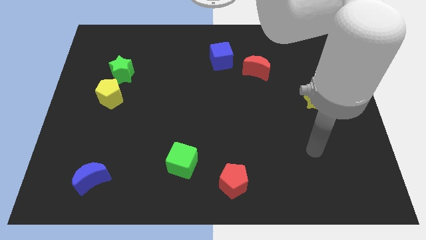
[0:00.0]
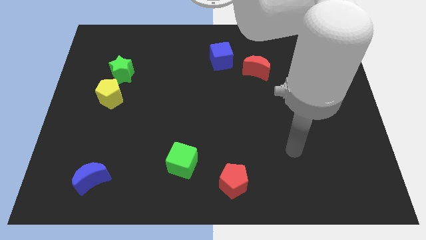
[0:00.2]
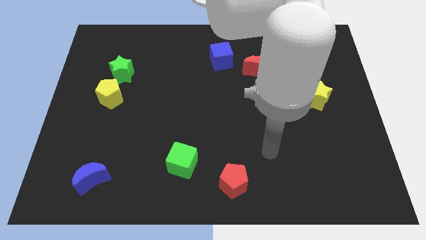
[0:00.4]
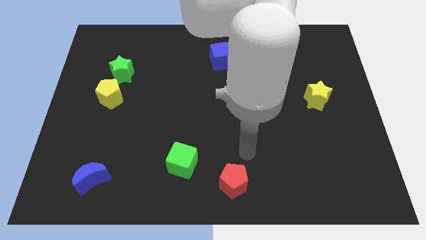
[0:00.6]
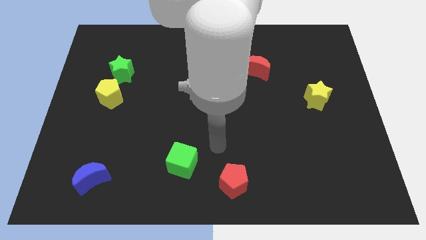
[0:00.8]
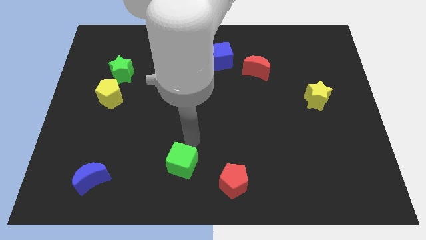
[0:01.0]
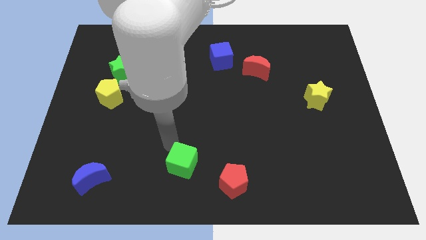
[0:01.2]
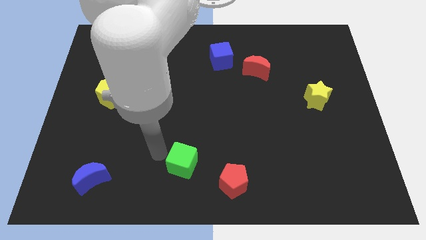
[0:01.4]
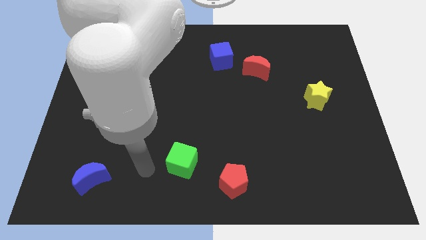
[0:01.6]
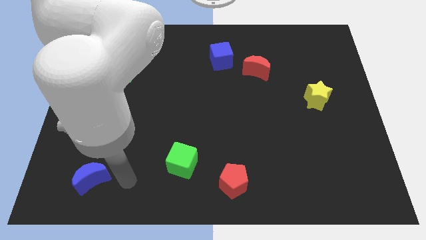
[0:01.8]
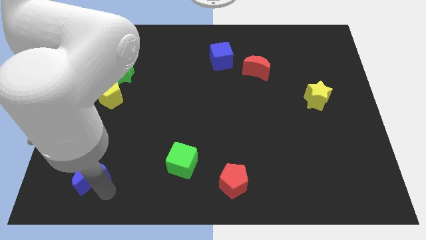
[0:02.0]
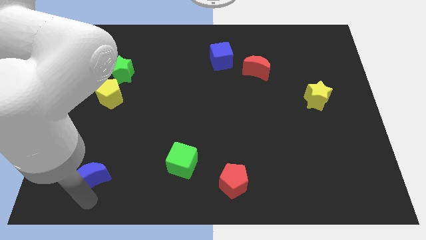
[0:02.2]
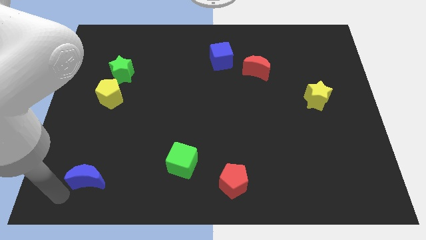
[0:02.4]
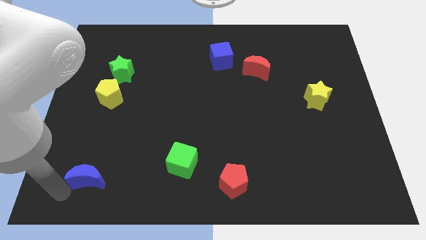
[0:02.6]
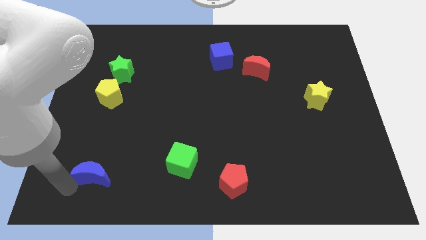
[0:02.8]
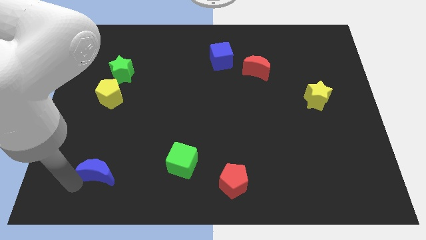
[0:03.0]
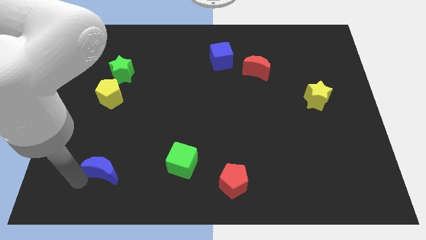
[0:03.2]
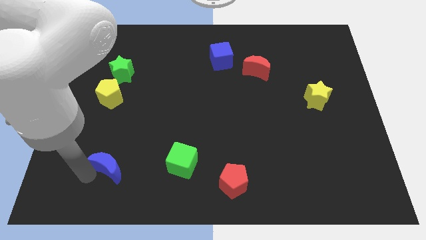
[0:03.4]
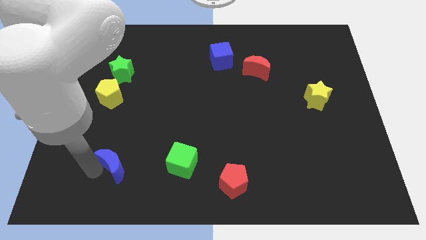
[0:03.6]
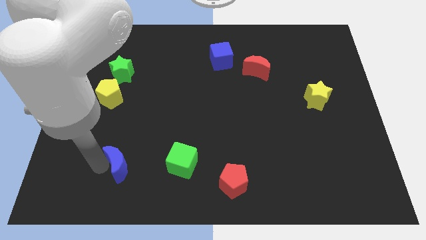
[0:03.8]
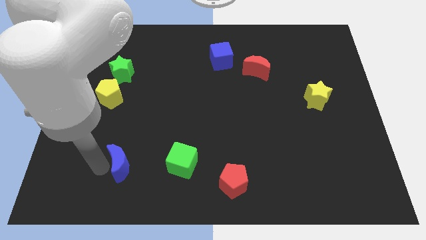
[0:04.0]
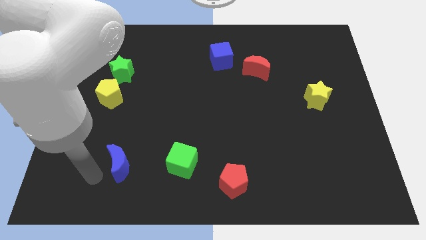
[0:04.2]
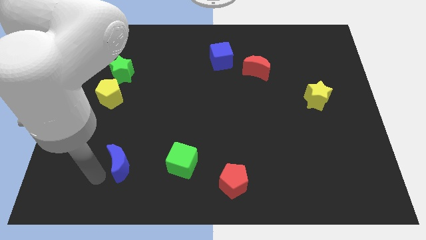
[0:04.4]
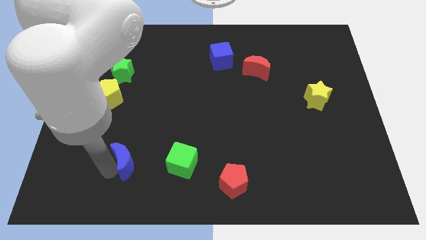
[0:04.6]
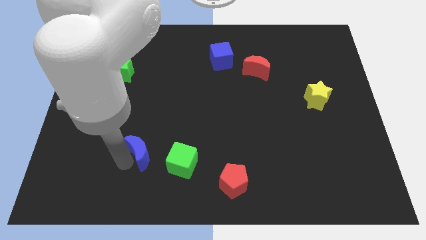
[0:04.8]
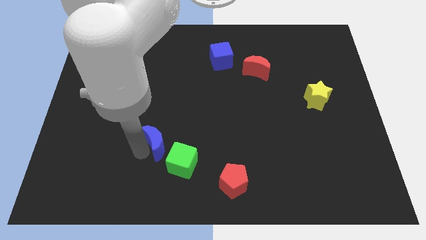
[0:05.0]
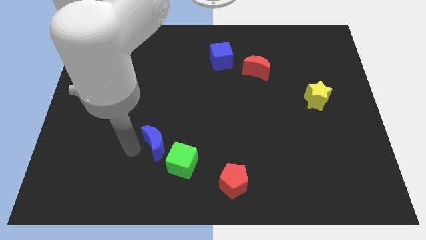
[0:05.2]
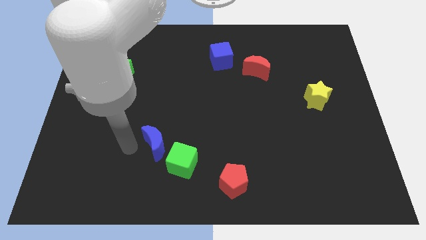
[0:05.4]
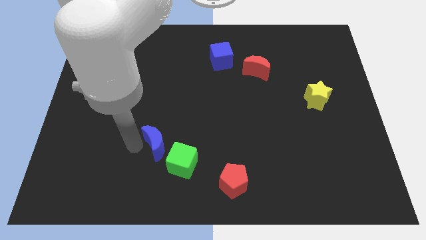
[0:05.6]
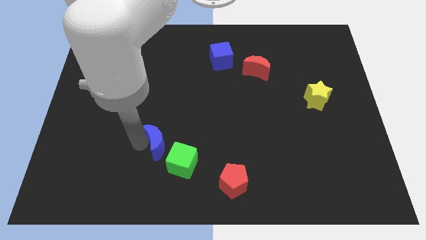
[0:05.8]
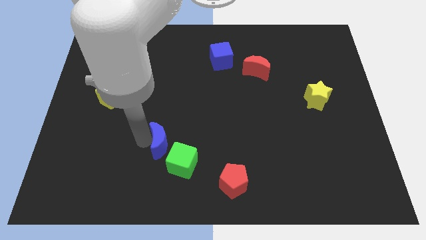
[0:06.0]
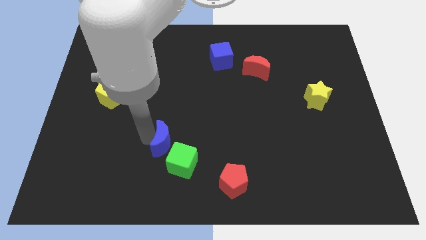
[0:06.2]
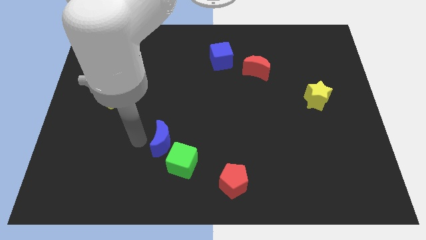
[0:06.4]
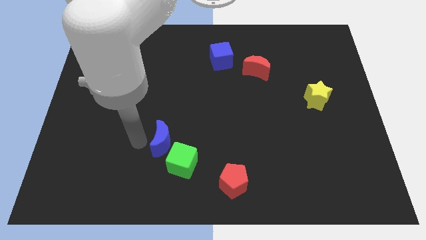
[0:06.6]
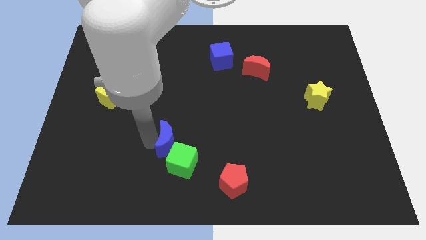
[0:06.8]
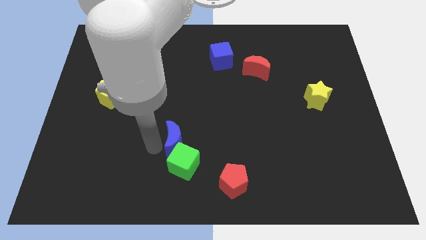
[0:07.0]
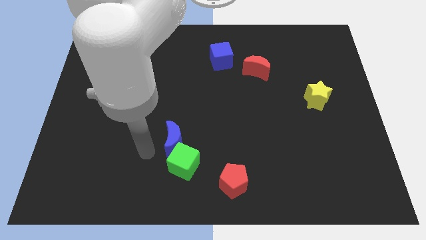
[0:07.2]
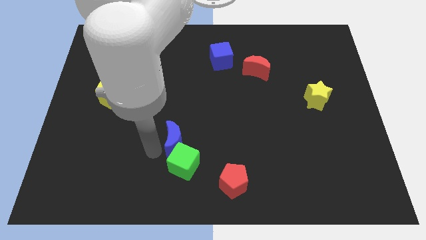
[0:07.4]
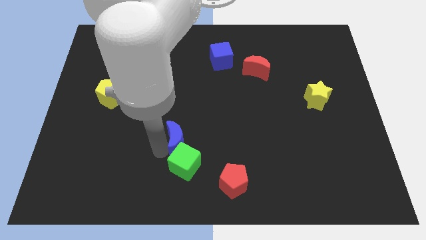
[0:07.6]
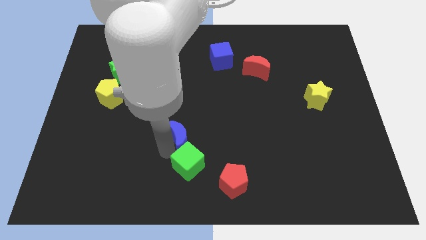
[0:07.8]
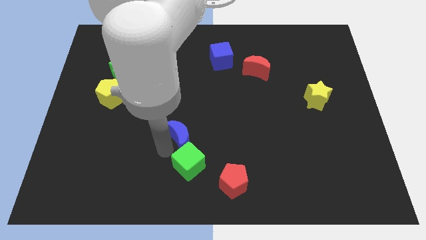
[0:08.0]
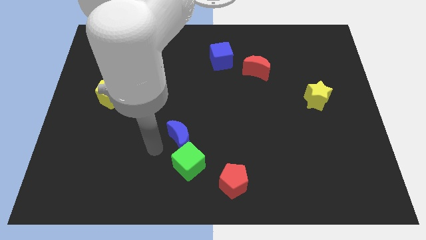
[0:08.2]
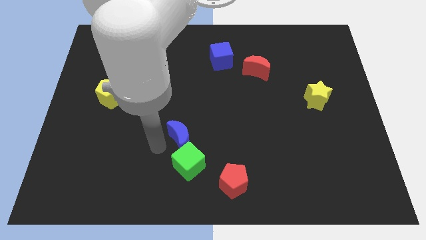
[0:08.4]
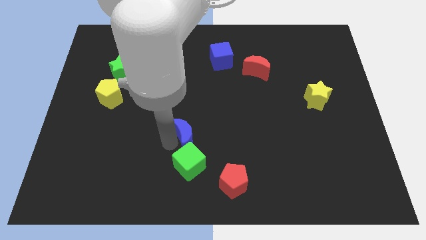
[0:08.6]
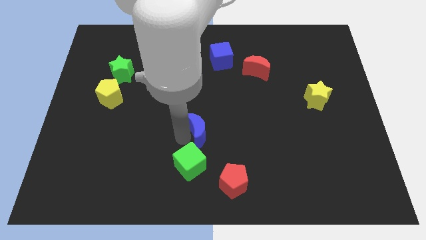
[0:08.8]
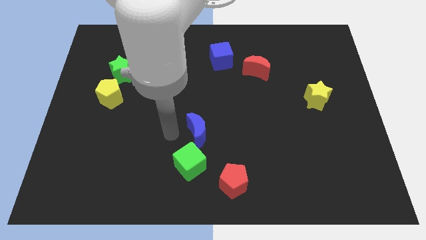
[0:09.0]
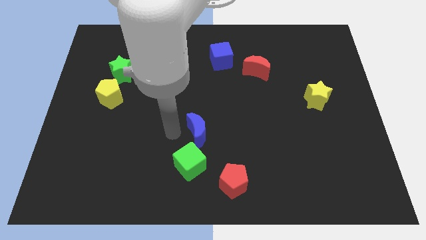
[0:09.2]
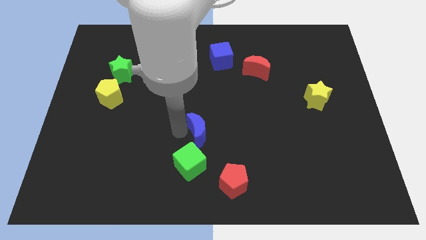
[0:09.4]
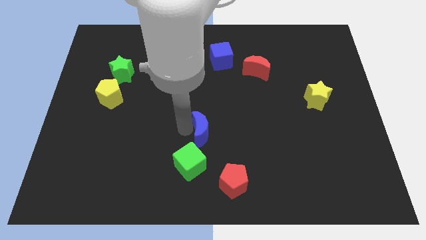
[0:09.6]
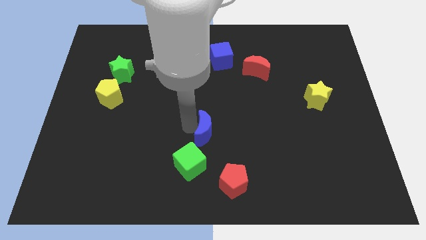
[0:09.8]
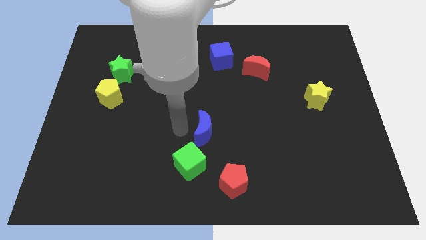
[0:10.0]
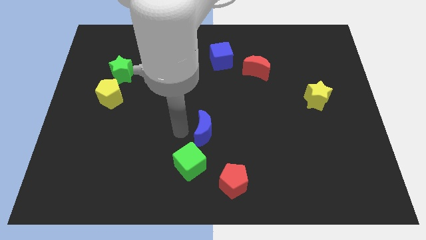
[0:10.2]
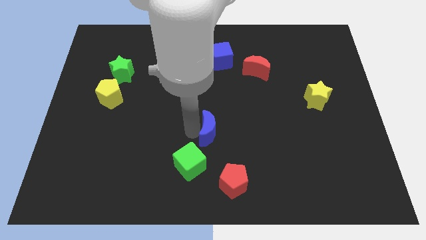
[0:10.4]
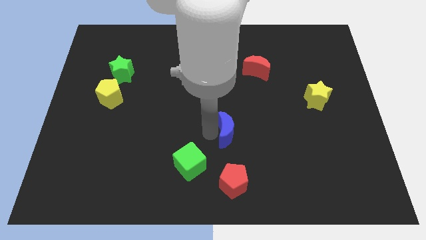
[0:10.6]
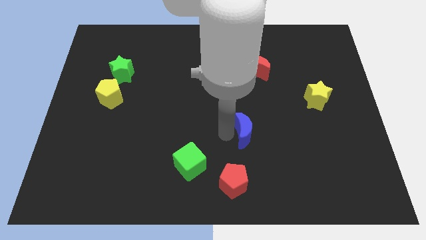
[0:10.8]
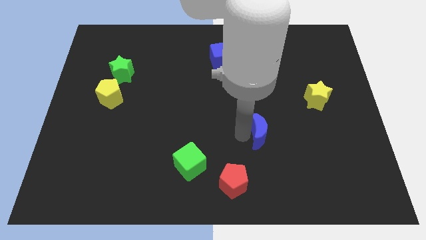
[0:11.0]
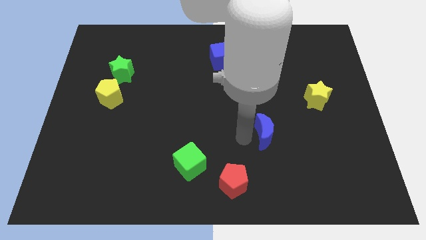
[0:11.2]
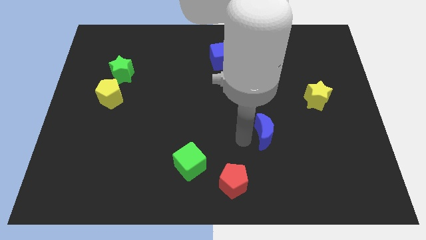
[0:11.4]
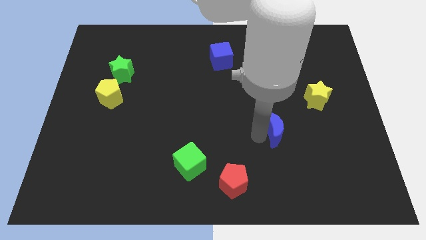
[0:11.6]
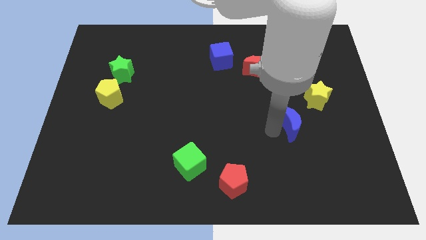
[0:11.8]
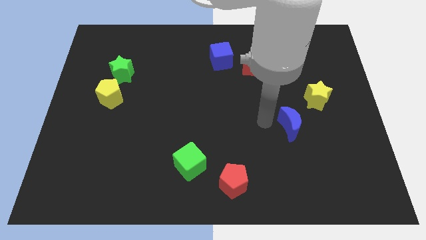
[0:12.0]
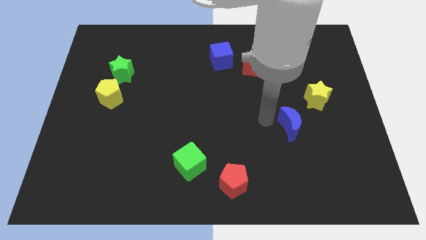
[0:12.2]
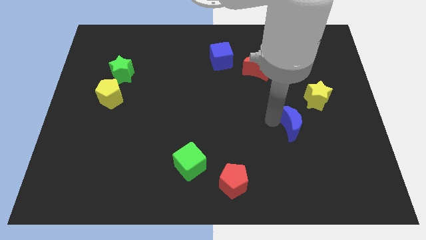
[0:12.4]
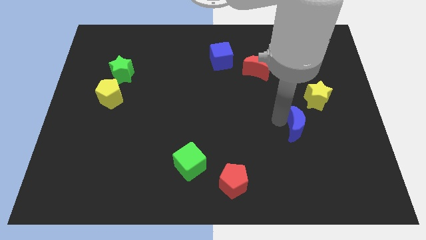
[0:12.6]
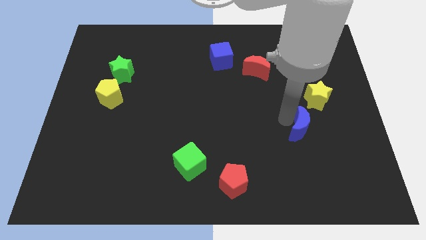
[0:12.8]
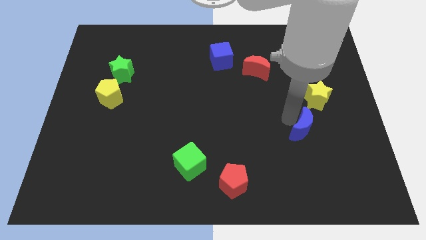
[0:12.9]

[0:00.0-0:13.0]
push the blue moon to the bottom of the yellow star
